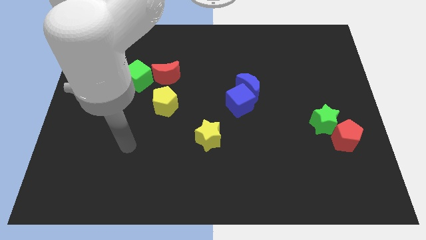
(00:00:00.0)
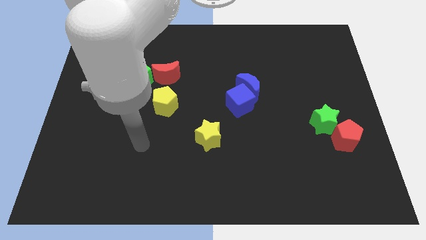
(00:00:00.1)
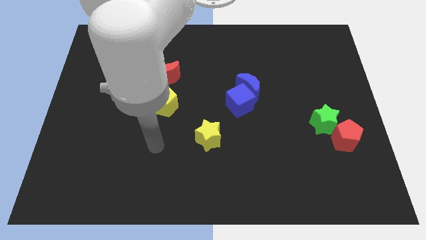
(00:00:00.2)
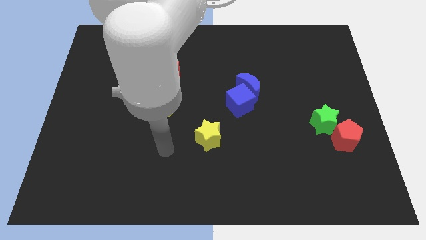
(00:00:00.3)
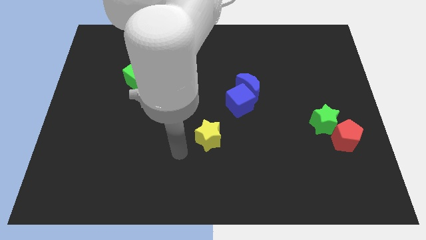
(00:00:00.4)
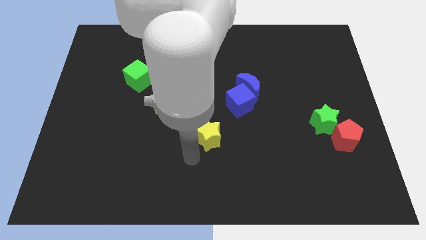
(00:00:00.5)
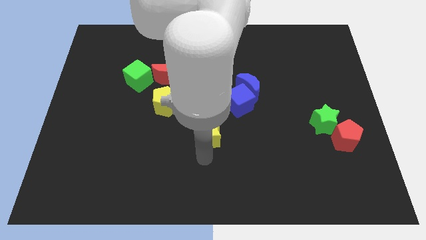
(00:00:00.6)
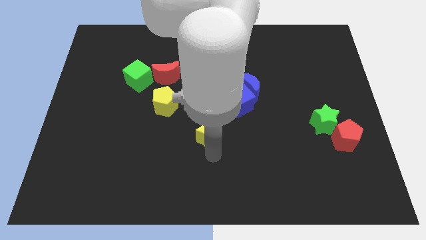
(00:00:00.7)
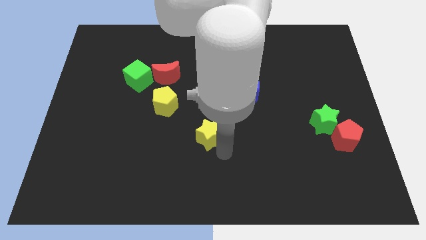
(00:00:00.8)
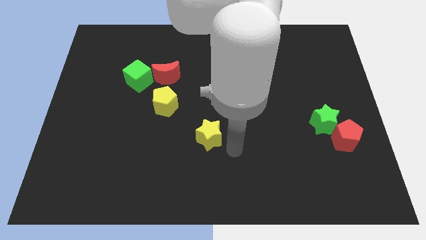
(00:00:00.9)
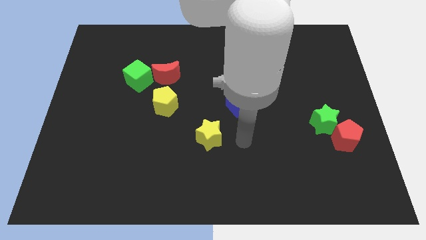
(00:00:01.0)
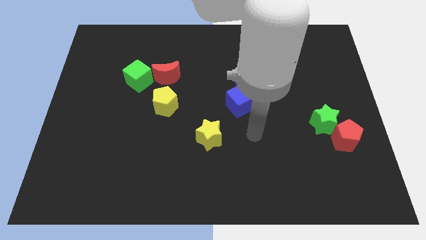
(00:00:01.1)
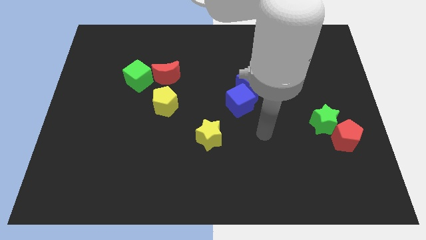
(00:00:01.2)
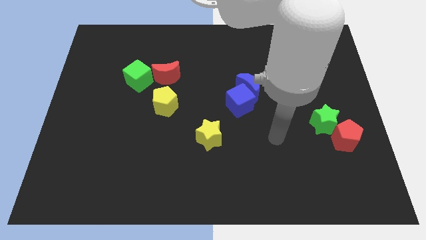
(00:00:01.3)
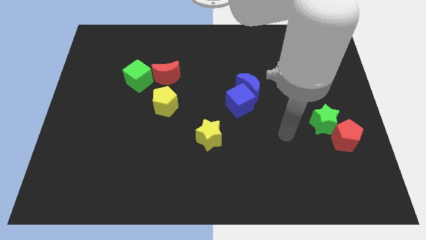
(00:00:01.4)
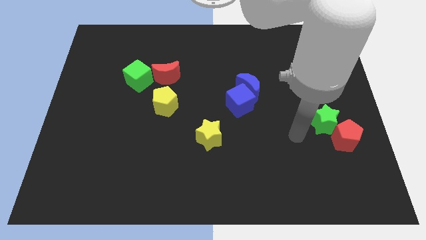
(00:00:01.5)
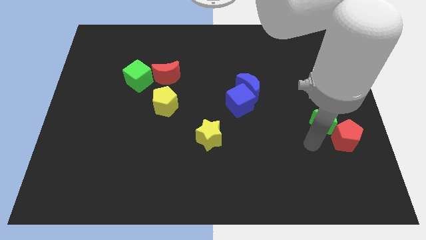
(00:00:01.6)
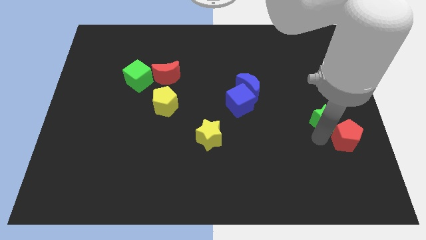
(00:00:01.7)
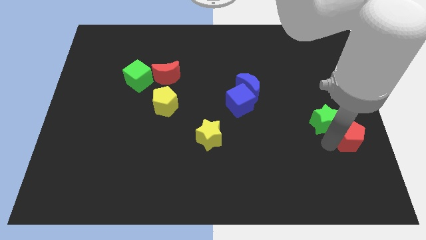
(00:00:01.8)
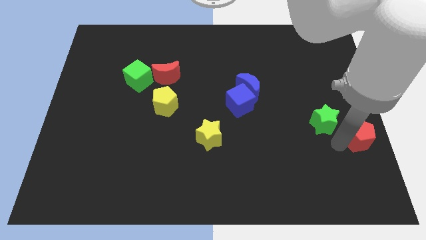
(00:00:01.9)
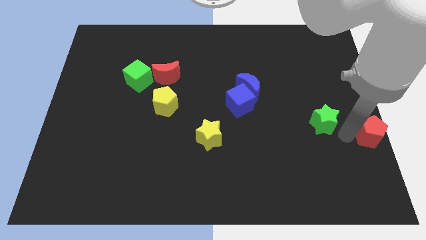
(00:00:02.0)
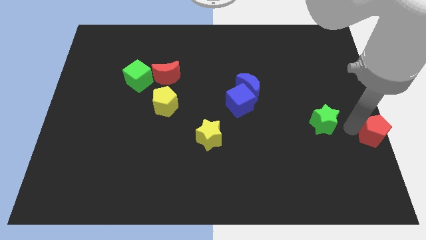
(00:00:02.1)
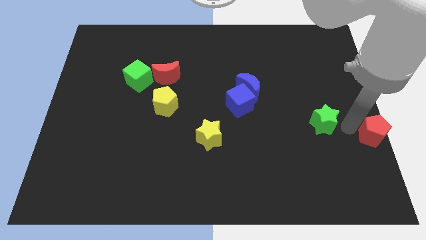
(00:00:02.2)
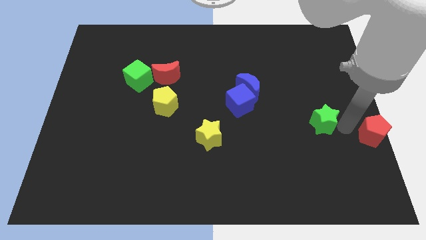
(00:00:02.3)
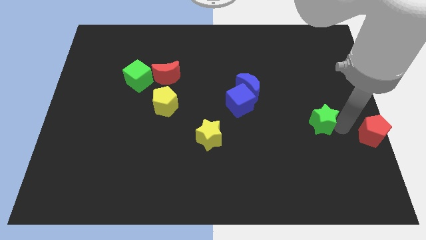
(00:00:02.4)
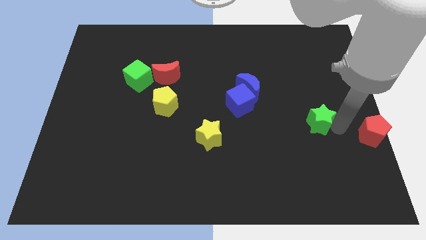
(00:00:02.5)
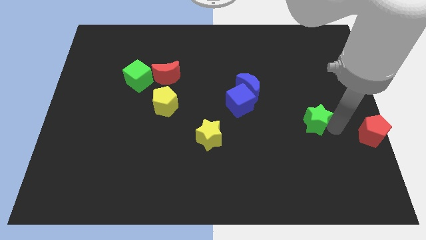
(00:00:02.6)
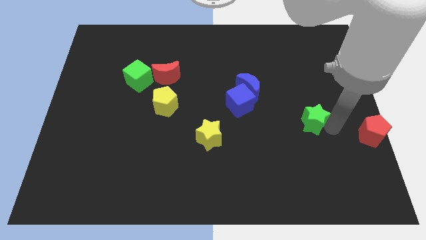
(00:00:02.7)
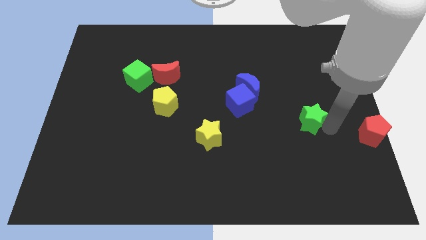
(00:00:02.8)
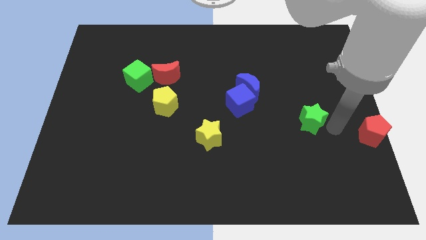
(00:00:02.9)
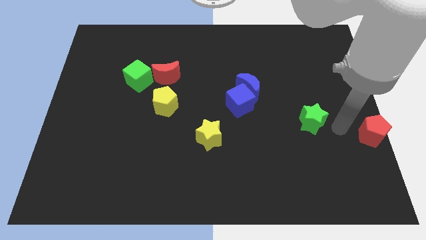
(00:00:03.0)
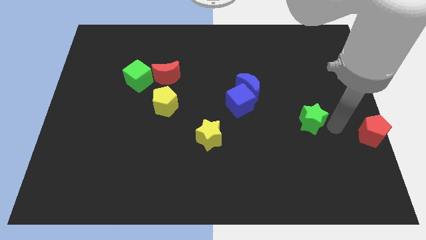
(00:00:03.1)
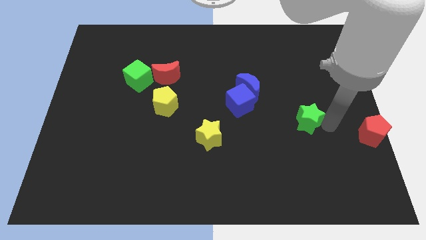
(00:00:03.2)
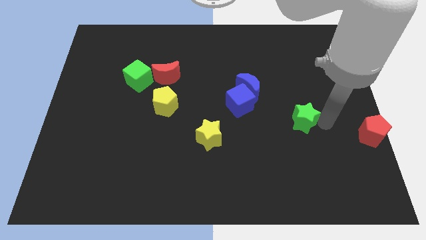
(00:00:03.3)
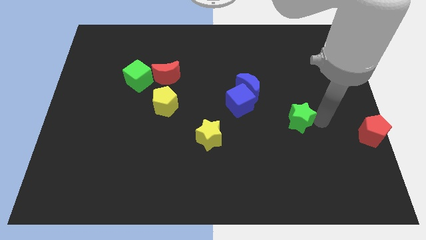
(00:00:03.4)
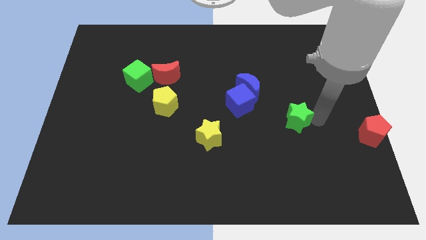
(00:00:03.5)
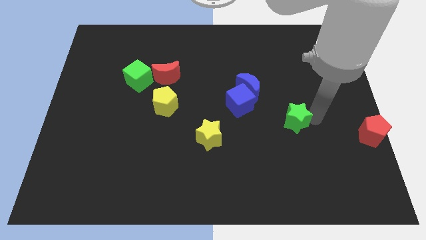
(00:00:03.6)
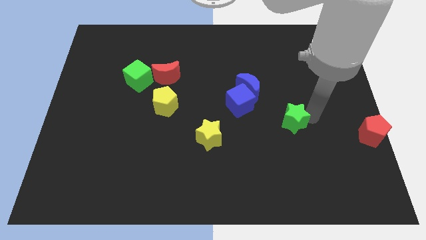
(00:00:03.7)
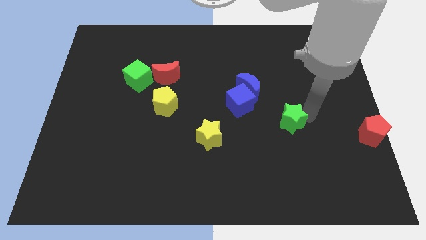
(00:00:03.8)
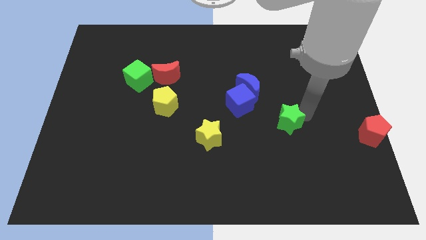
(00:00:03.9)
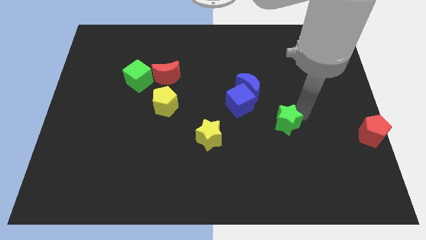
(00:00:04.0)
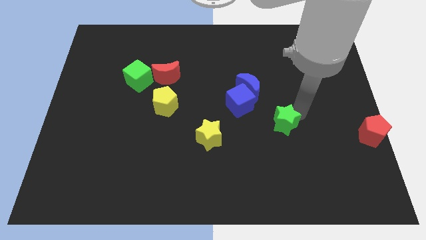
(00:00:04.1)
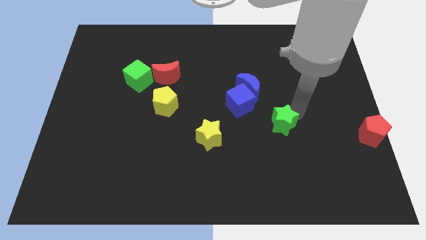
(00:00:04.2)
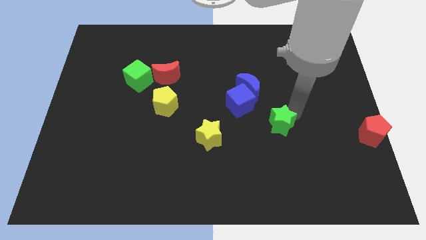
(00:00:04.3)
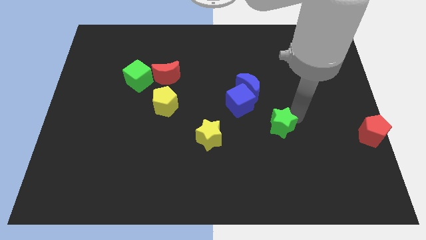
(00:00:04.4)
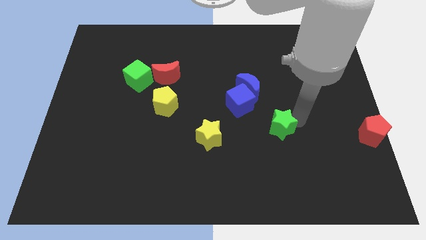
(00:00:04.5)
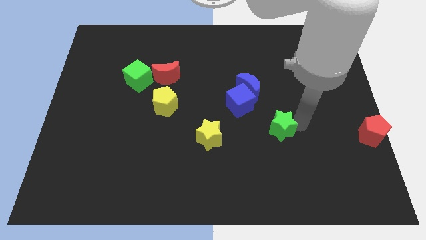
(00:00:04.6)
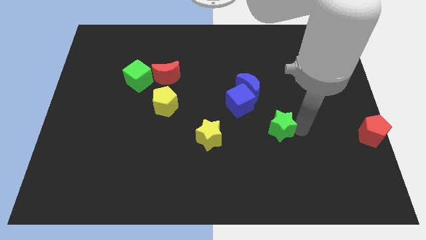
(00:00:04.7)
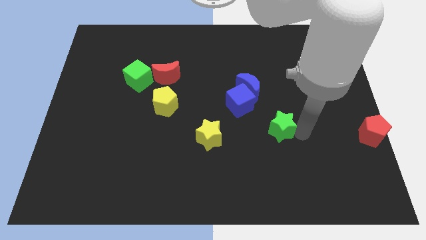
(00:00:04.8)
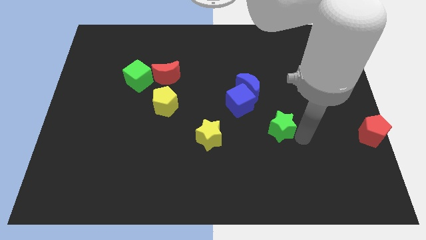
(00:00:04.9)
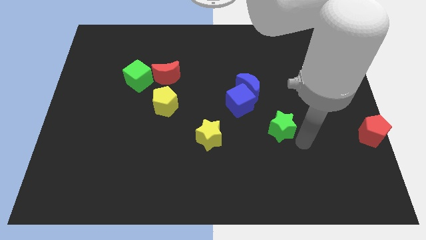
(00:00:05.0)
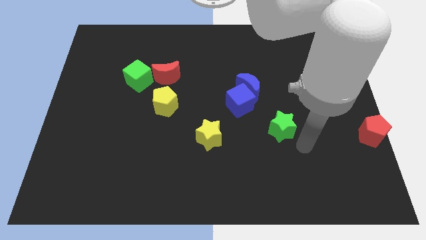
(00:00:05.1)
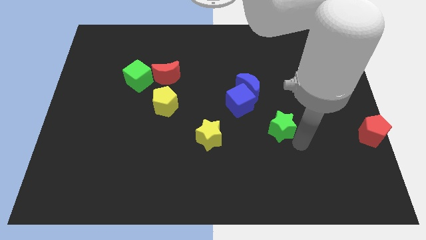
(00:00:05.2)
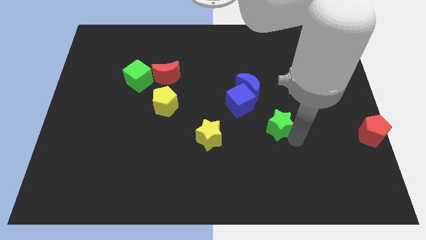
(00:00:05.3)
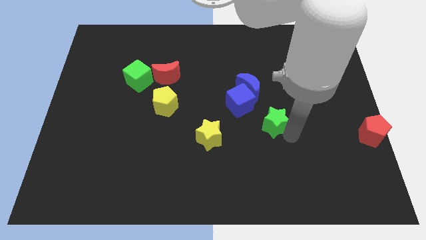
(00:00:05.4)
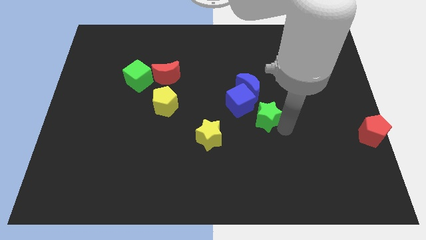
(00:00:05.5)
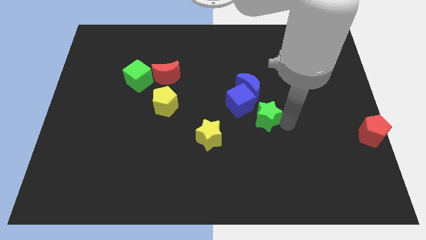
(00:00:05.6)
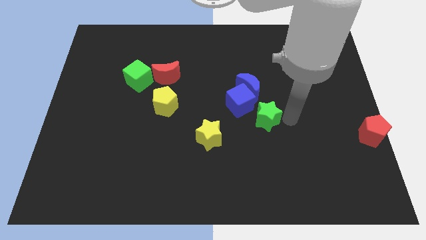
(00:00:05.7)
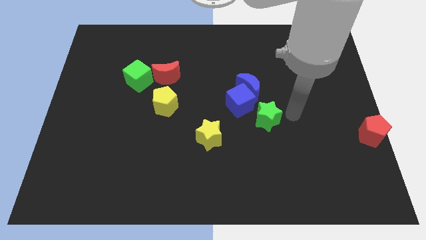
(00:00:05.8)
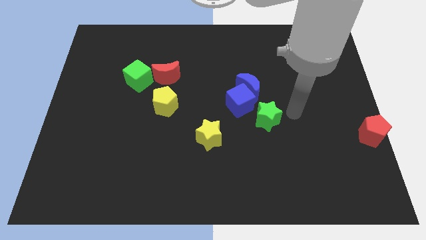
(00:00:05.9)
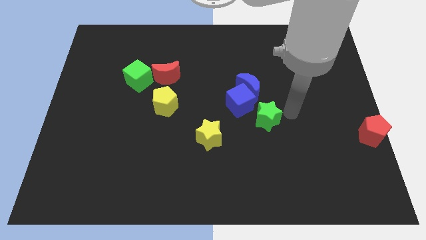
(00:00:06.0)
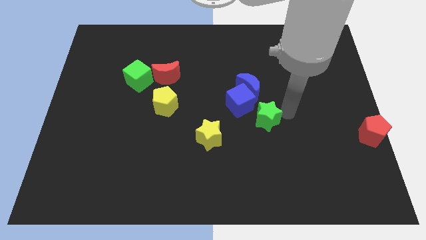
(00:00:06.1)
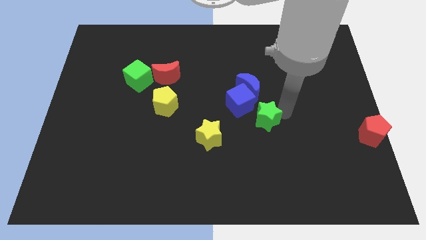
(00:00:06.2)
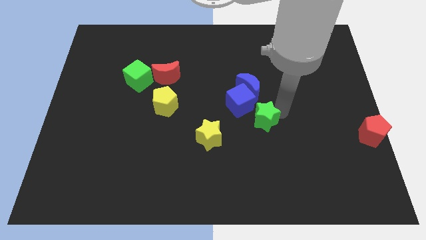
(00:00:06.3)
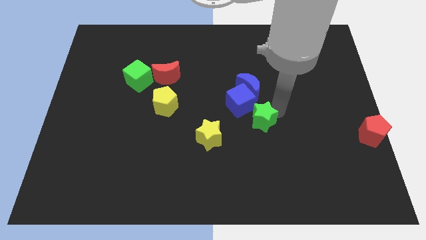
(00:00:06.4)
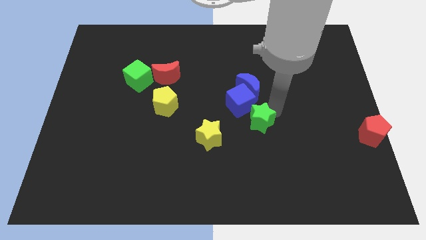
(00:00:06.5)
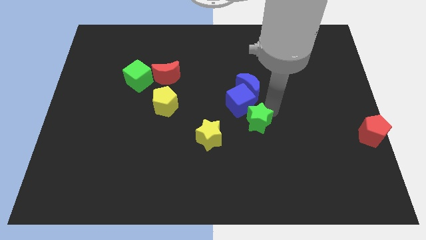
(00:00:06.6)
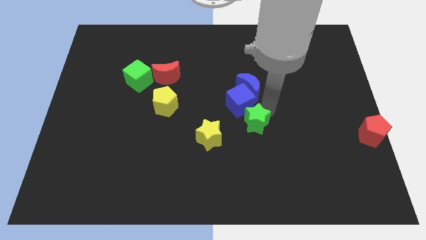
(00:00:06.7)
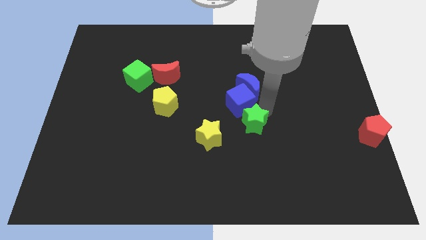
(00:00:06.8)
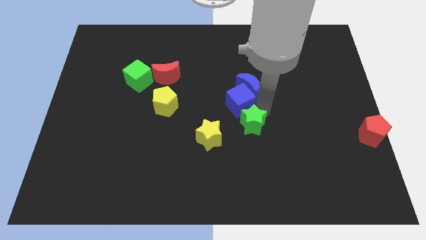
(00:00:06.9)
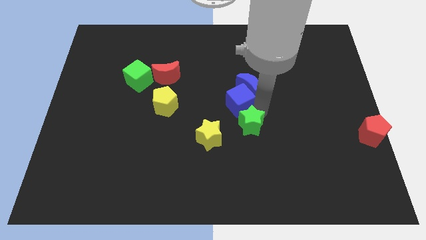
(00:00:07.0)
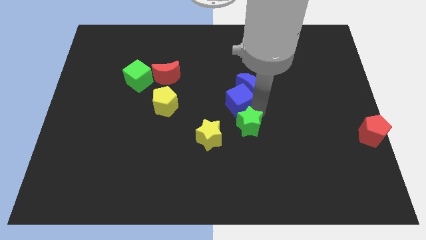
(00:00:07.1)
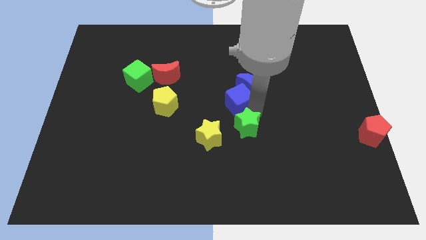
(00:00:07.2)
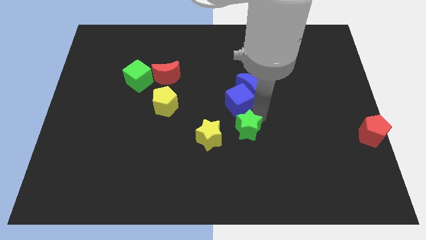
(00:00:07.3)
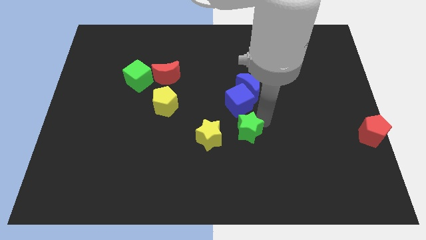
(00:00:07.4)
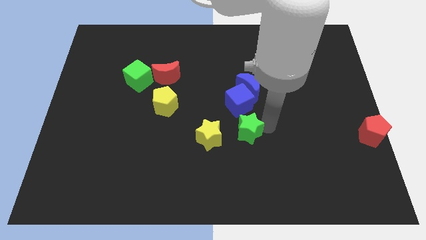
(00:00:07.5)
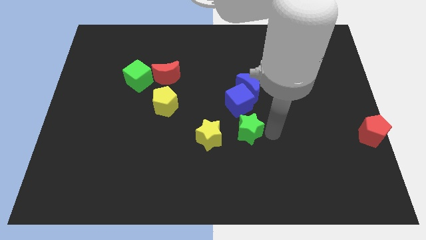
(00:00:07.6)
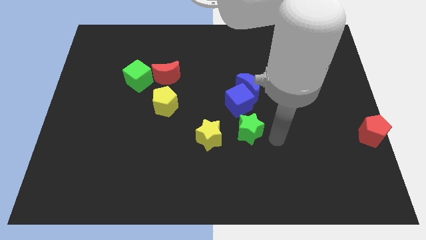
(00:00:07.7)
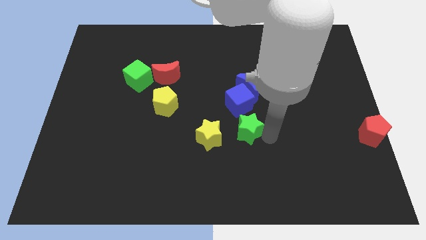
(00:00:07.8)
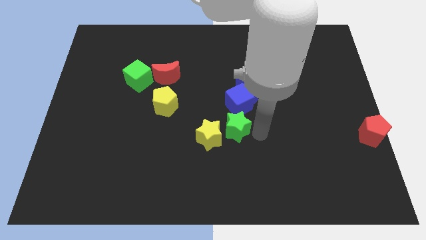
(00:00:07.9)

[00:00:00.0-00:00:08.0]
slide the green star left
